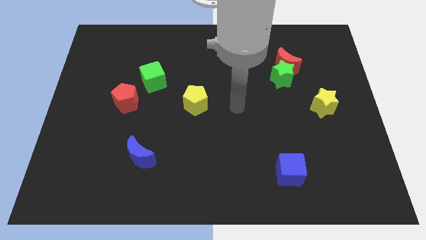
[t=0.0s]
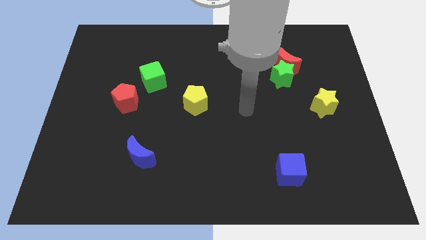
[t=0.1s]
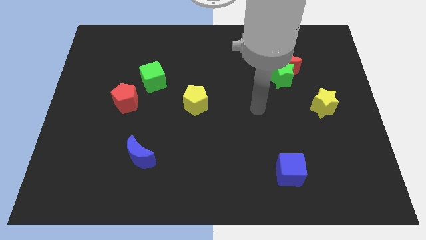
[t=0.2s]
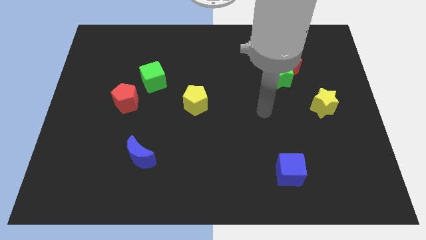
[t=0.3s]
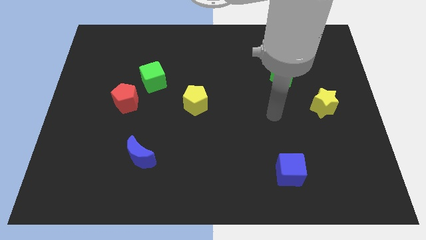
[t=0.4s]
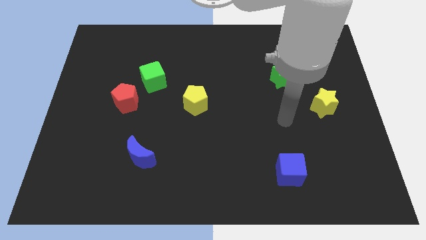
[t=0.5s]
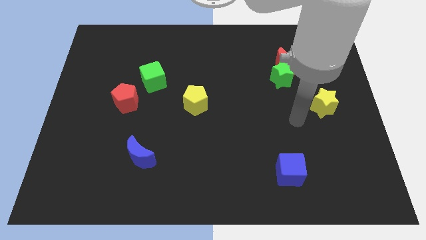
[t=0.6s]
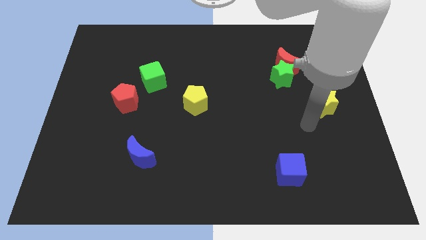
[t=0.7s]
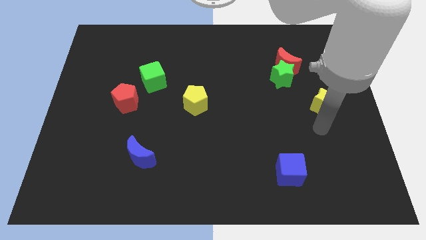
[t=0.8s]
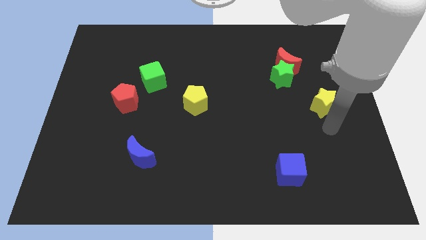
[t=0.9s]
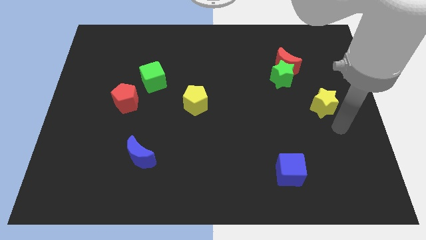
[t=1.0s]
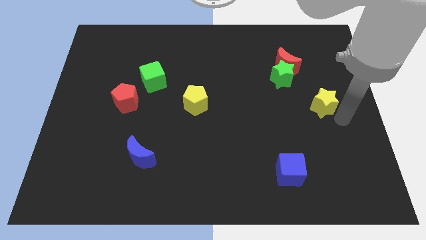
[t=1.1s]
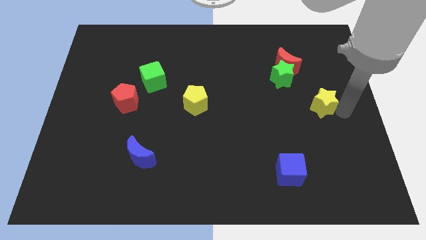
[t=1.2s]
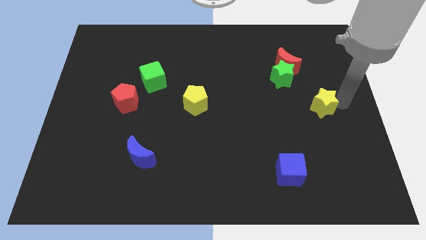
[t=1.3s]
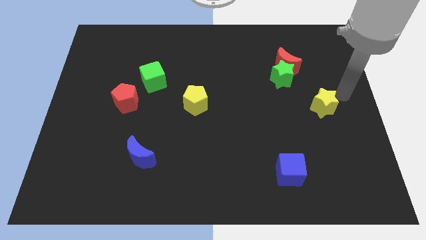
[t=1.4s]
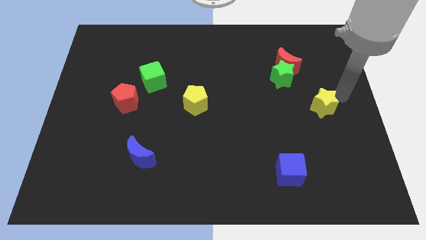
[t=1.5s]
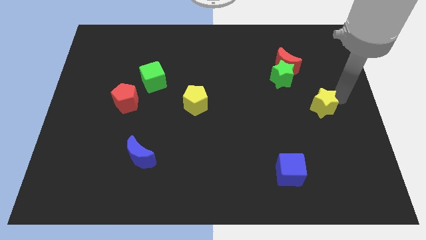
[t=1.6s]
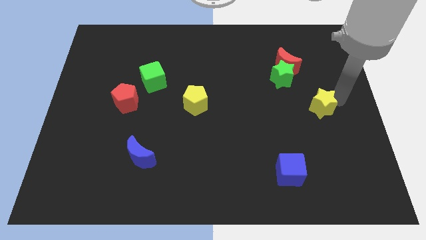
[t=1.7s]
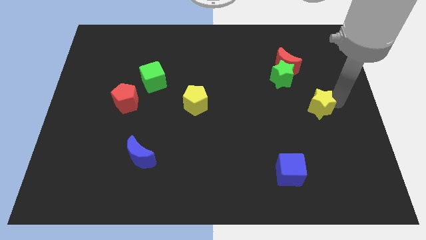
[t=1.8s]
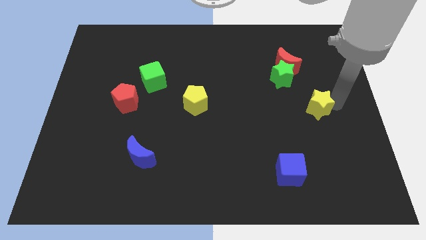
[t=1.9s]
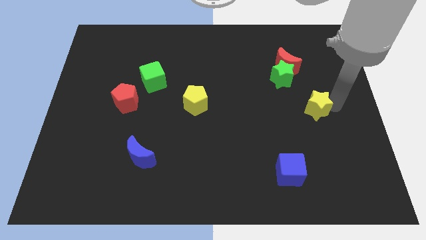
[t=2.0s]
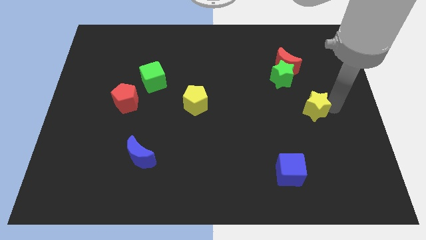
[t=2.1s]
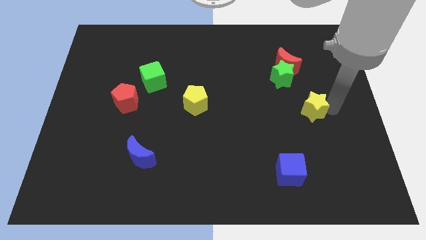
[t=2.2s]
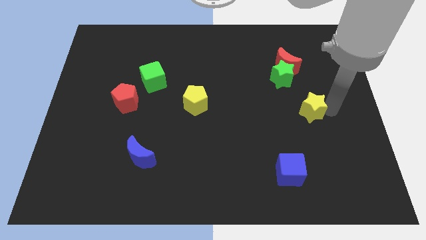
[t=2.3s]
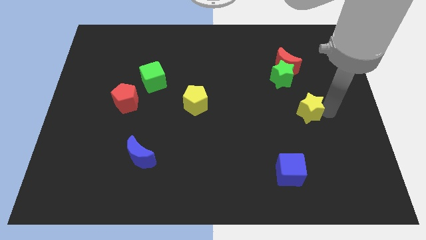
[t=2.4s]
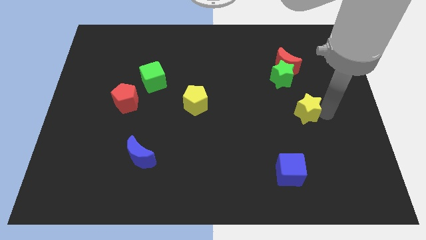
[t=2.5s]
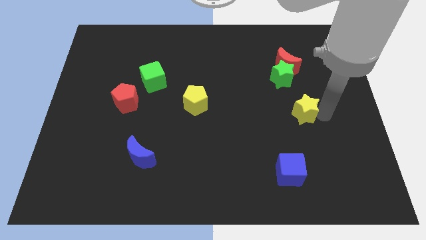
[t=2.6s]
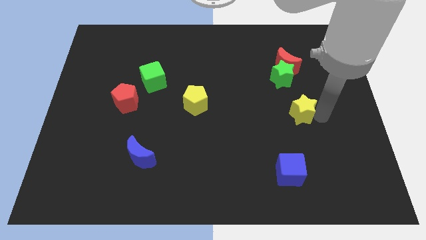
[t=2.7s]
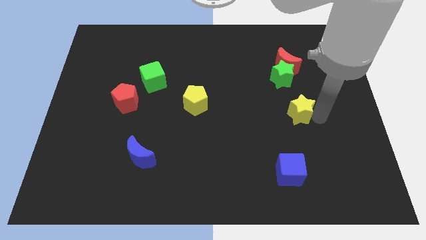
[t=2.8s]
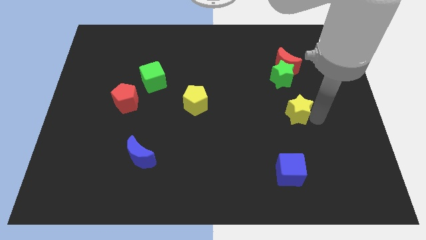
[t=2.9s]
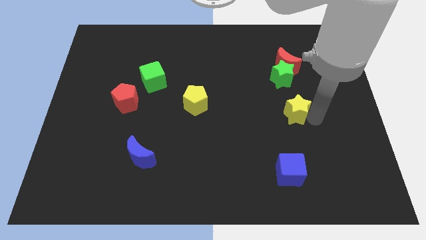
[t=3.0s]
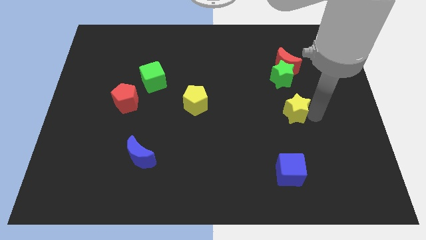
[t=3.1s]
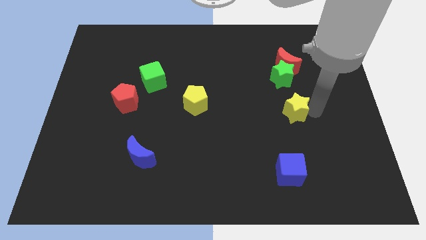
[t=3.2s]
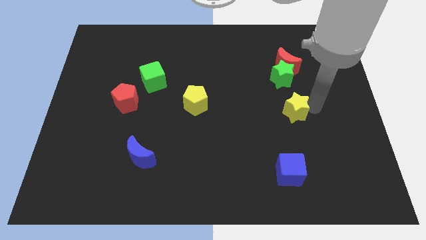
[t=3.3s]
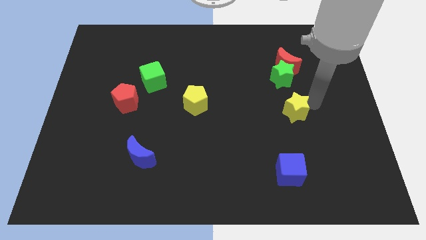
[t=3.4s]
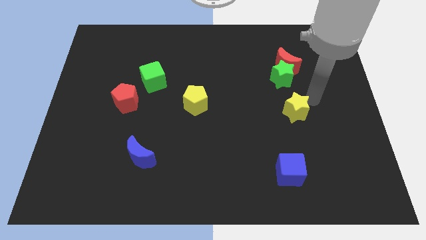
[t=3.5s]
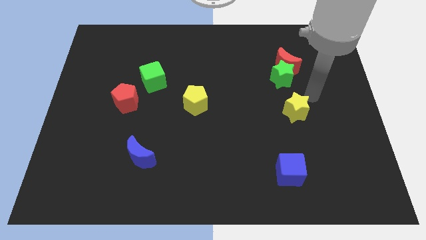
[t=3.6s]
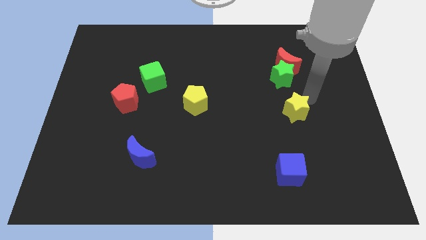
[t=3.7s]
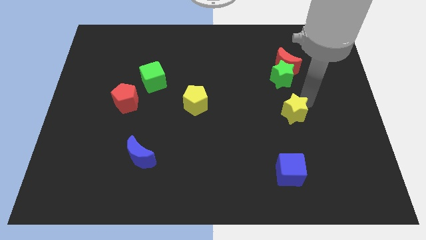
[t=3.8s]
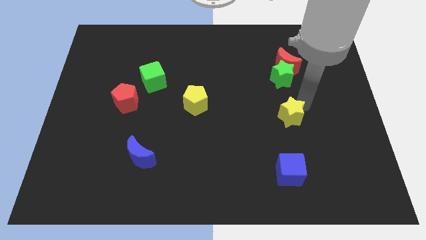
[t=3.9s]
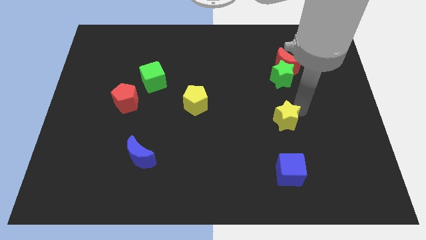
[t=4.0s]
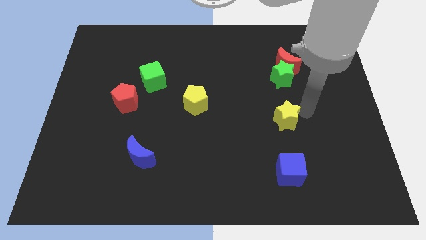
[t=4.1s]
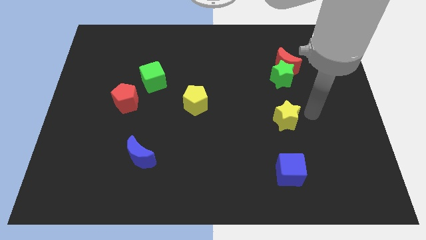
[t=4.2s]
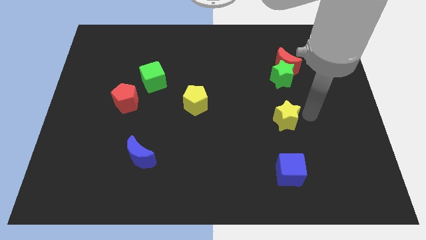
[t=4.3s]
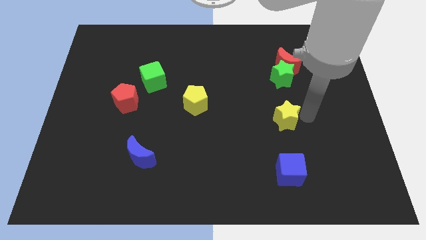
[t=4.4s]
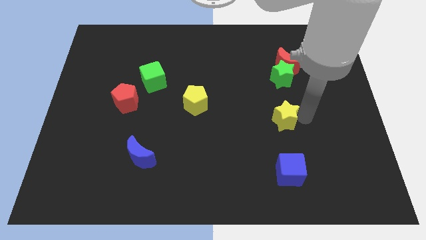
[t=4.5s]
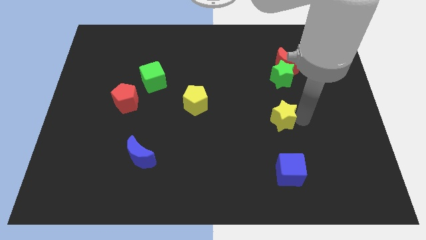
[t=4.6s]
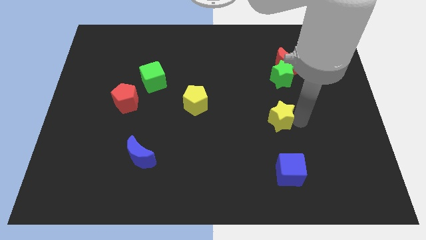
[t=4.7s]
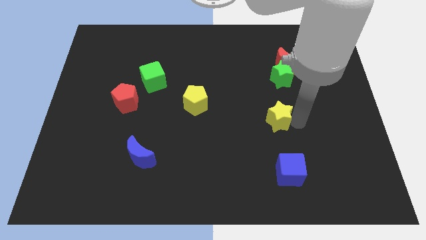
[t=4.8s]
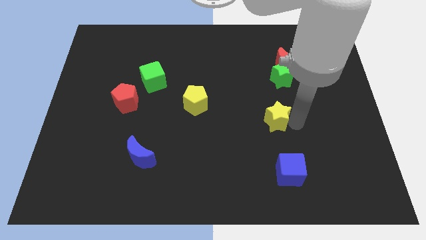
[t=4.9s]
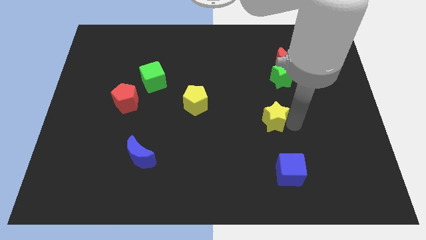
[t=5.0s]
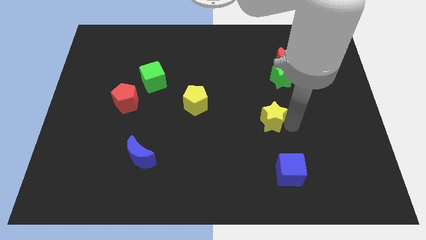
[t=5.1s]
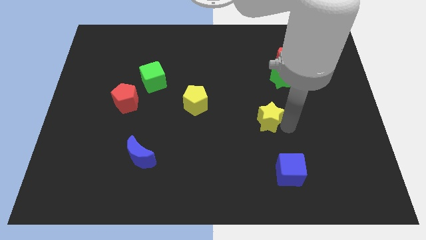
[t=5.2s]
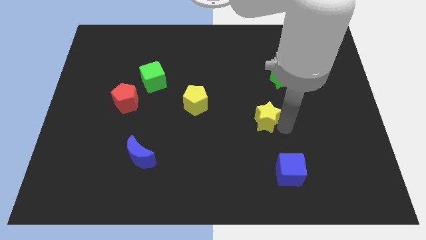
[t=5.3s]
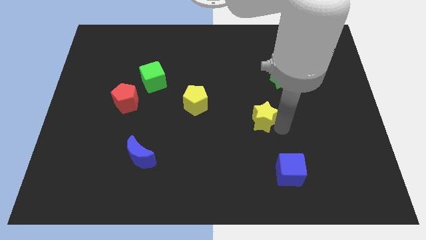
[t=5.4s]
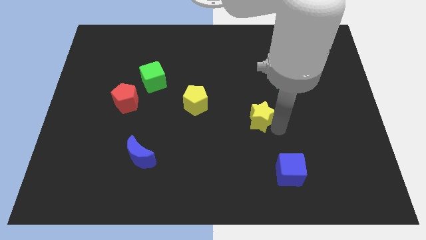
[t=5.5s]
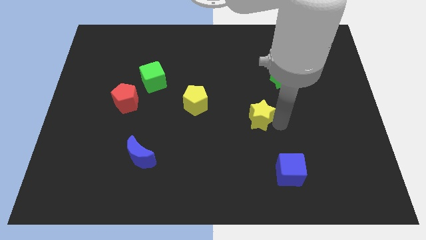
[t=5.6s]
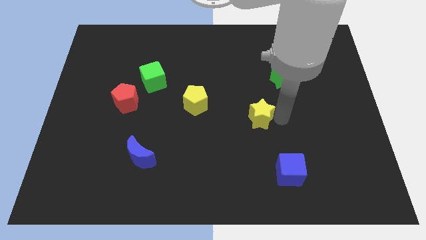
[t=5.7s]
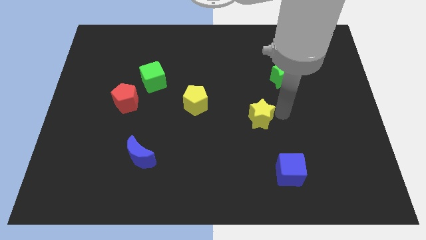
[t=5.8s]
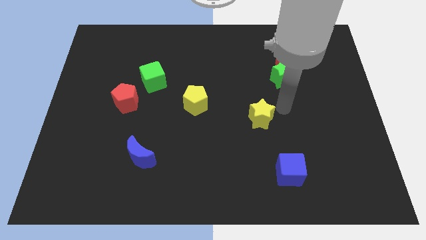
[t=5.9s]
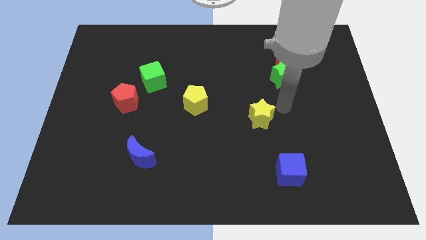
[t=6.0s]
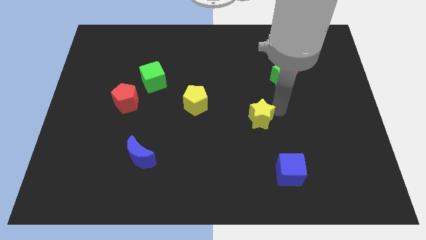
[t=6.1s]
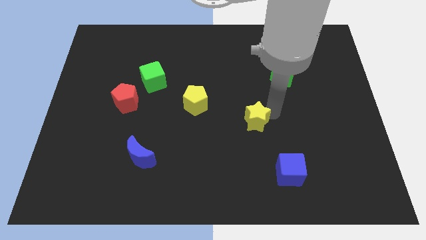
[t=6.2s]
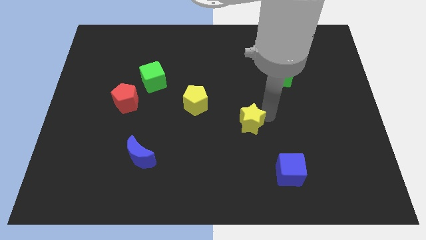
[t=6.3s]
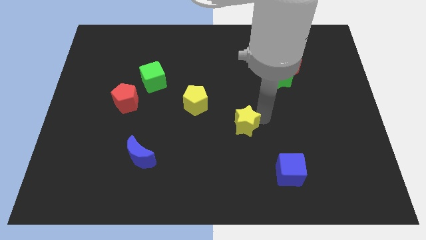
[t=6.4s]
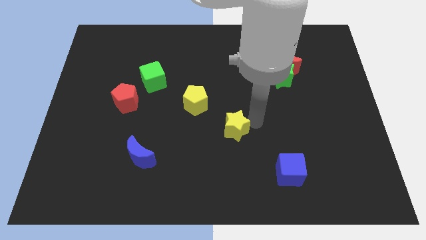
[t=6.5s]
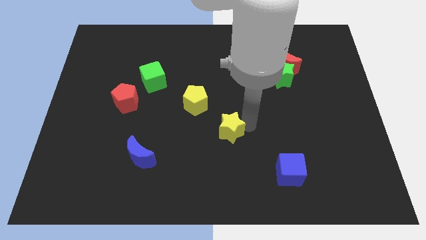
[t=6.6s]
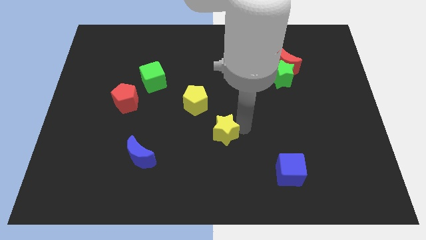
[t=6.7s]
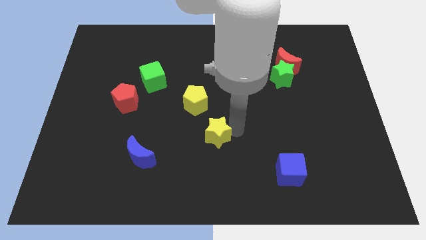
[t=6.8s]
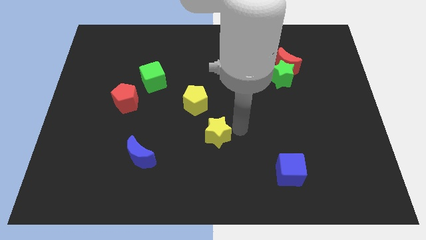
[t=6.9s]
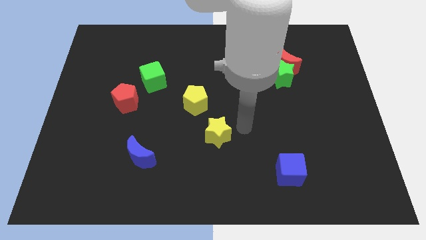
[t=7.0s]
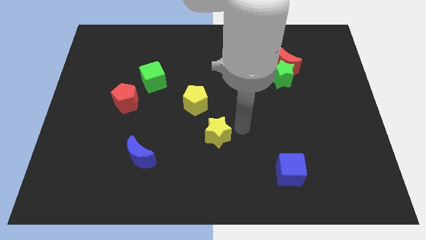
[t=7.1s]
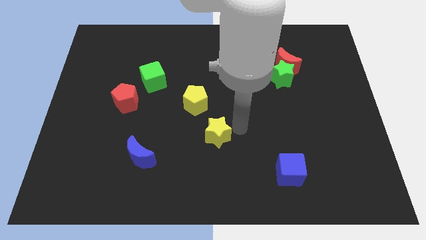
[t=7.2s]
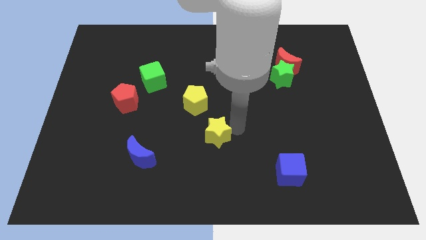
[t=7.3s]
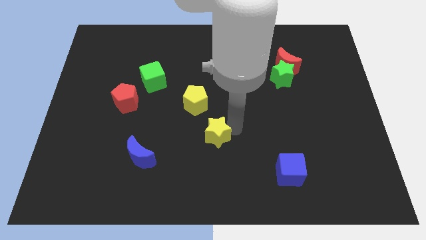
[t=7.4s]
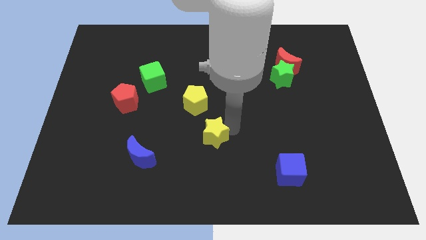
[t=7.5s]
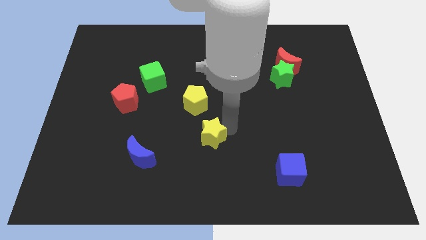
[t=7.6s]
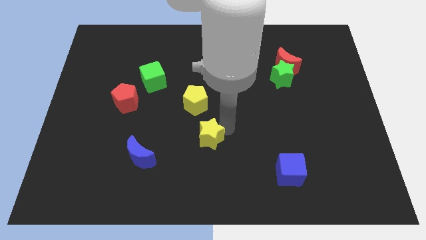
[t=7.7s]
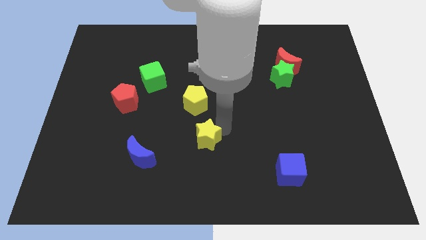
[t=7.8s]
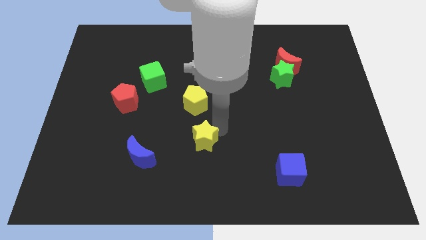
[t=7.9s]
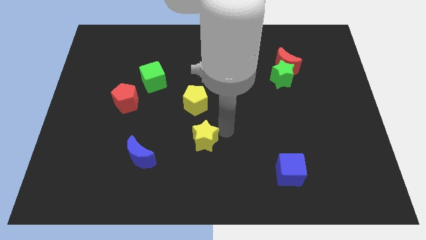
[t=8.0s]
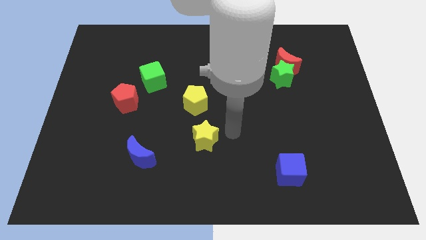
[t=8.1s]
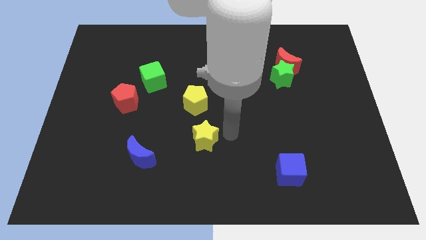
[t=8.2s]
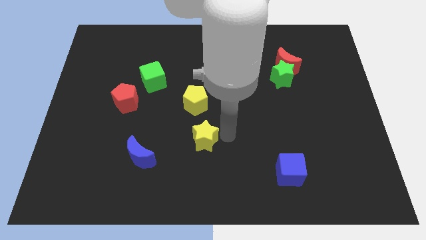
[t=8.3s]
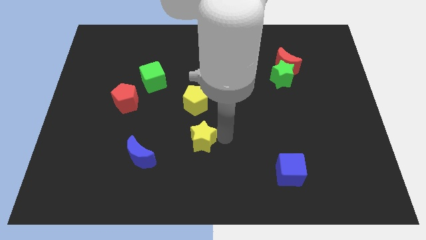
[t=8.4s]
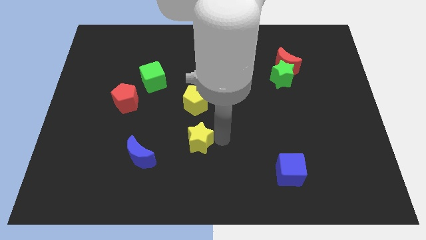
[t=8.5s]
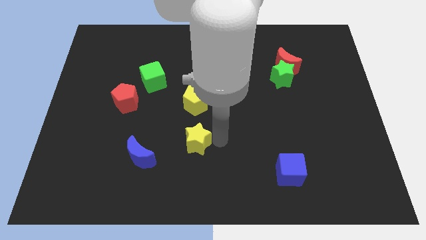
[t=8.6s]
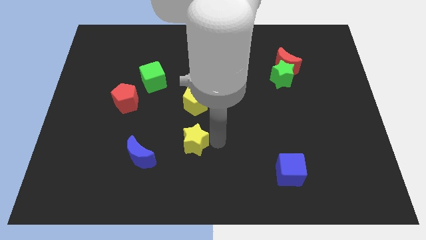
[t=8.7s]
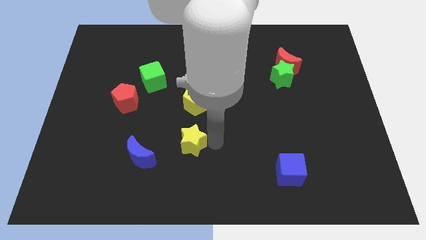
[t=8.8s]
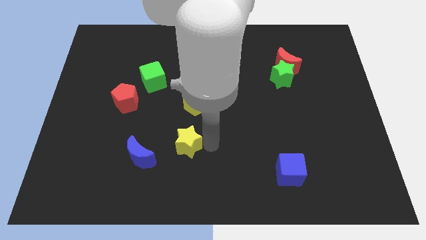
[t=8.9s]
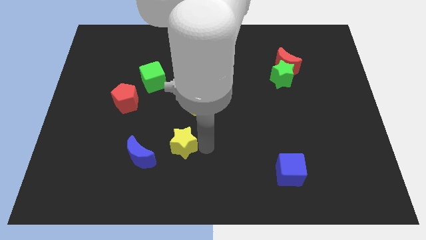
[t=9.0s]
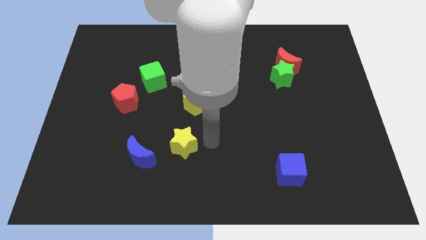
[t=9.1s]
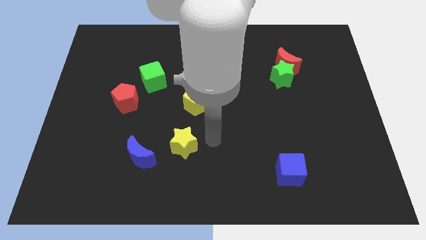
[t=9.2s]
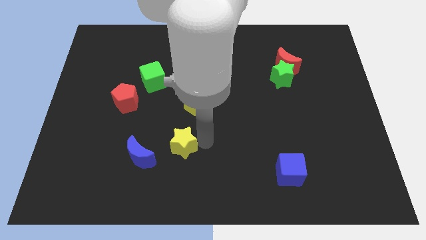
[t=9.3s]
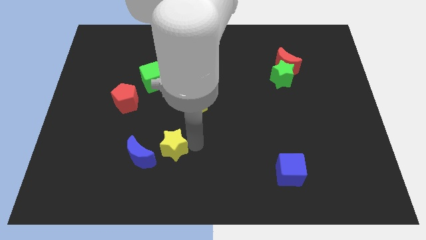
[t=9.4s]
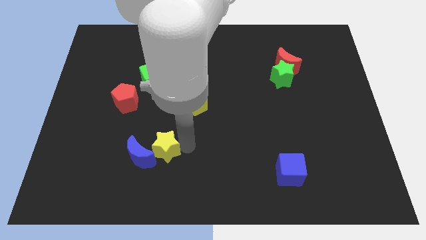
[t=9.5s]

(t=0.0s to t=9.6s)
slide the yellow star to the blue moon
